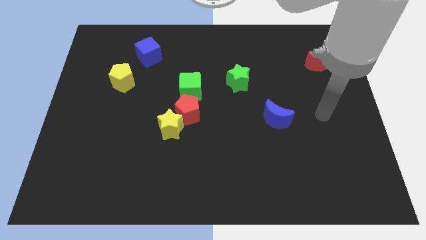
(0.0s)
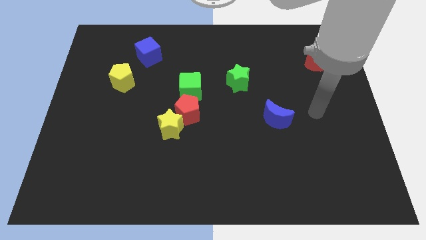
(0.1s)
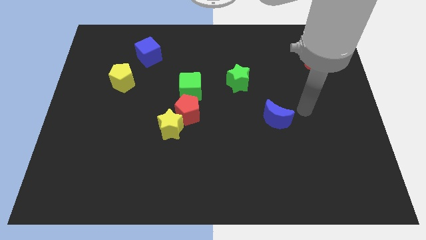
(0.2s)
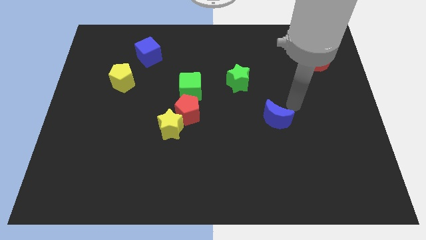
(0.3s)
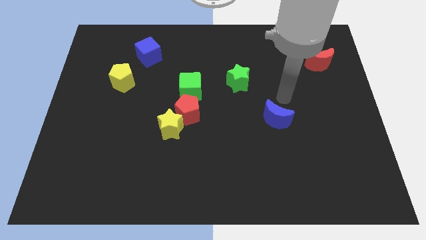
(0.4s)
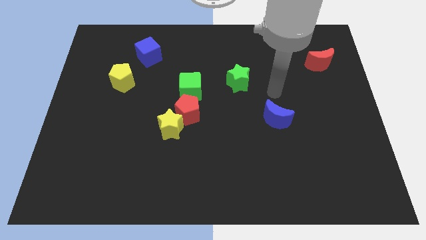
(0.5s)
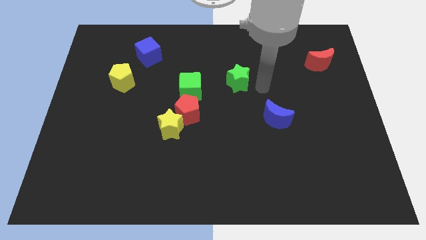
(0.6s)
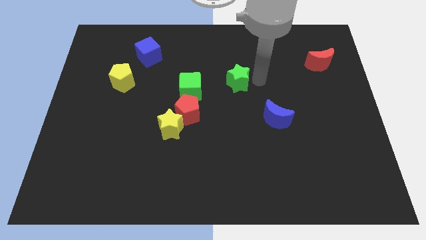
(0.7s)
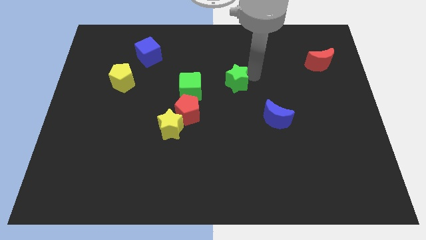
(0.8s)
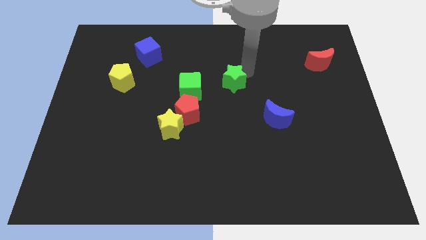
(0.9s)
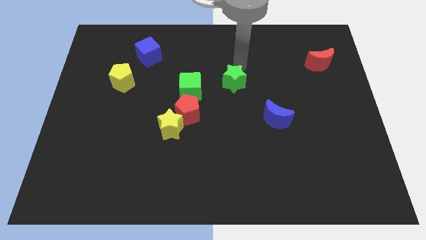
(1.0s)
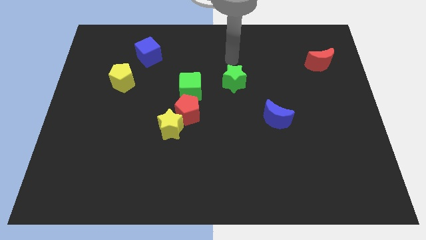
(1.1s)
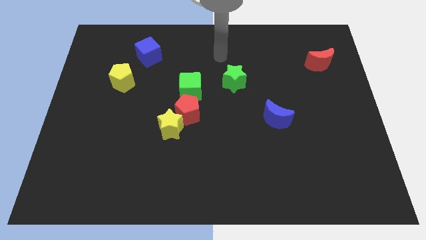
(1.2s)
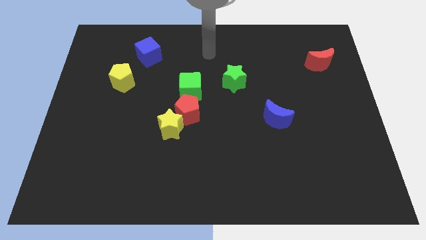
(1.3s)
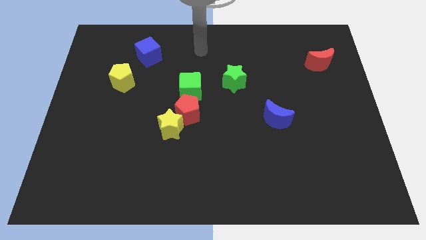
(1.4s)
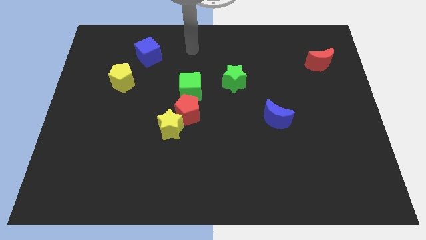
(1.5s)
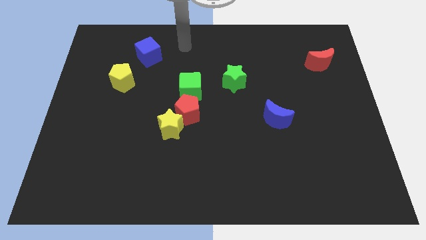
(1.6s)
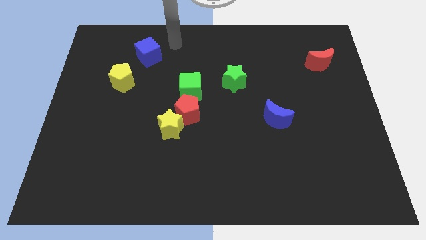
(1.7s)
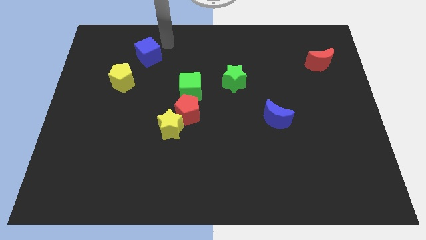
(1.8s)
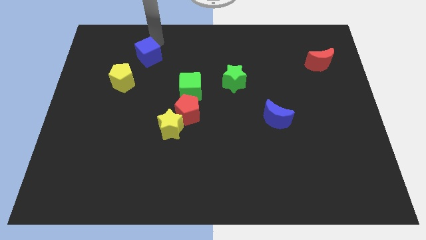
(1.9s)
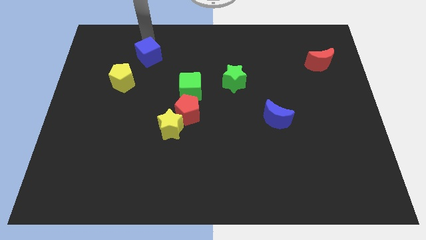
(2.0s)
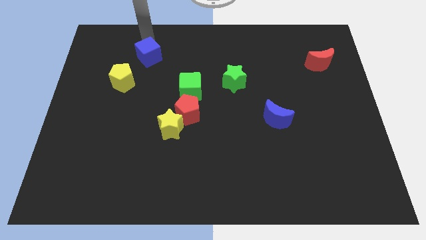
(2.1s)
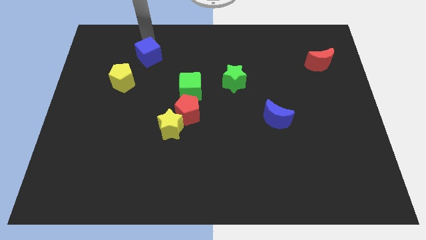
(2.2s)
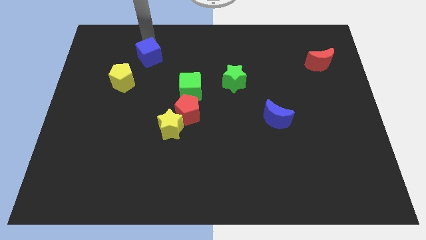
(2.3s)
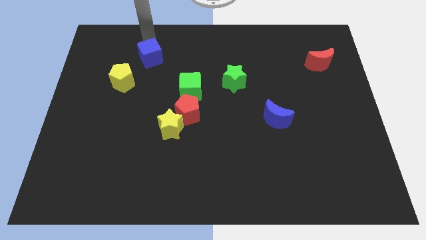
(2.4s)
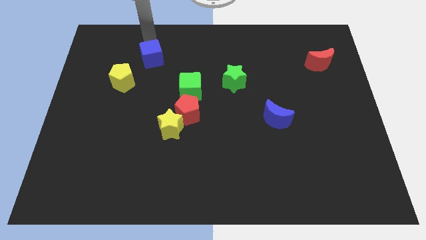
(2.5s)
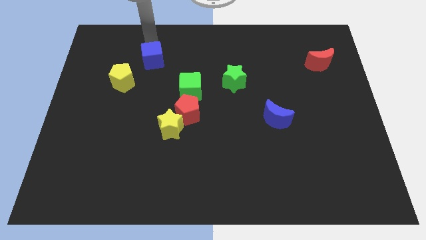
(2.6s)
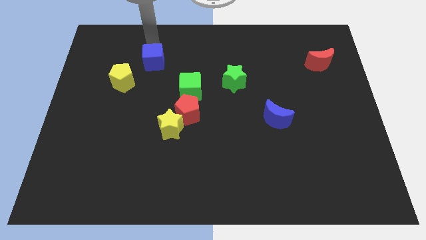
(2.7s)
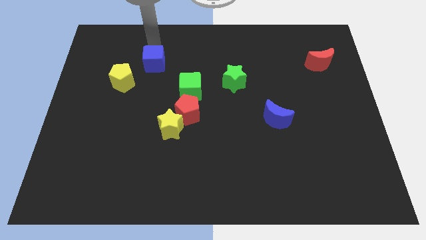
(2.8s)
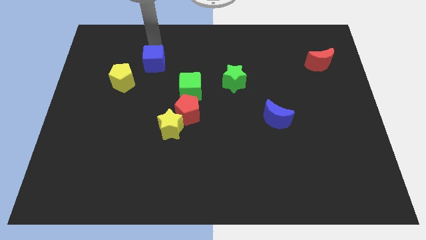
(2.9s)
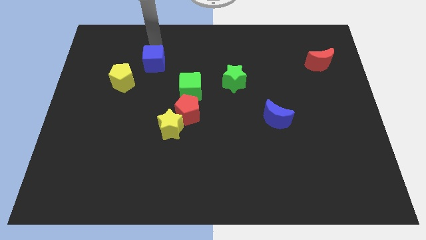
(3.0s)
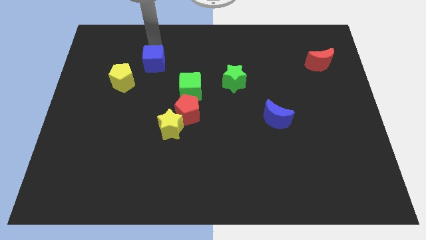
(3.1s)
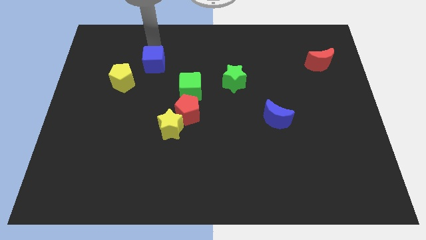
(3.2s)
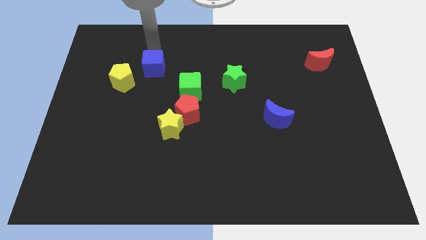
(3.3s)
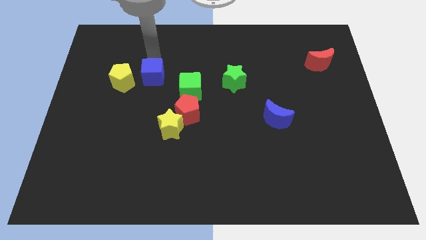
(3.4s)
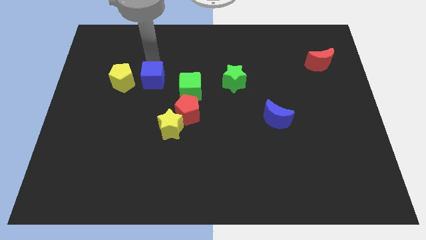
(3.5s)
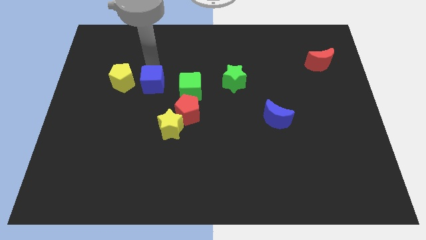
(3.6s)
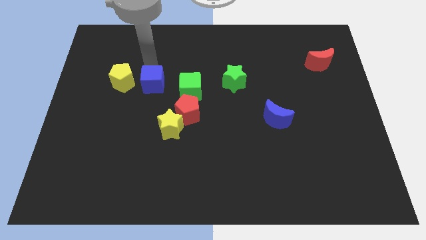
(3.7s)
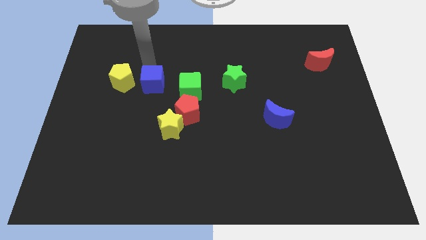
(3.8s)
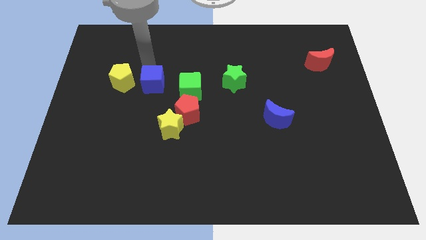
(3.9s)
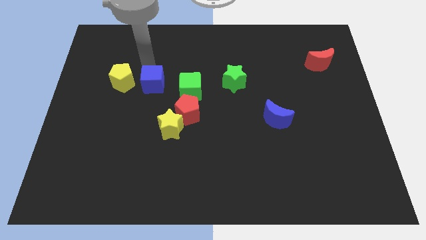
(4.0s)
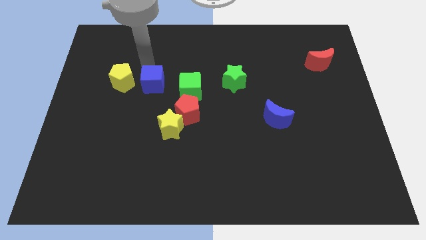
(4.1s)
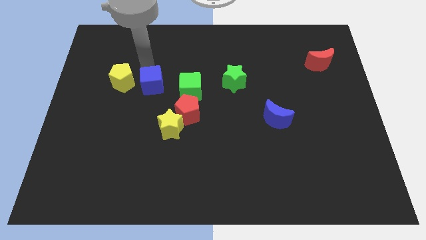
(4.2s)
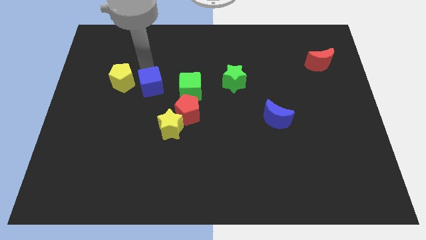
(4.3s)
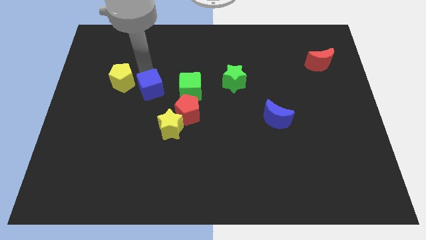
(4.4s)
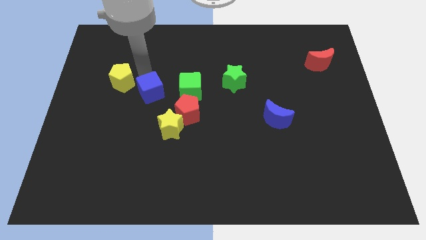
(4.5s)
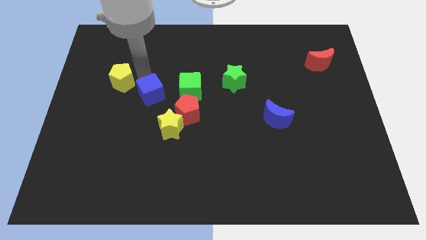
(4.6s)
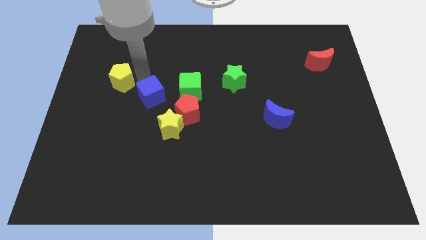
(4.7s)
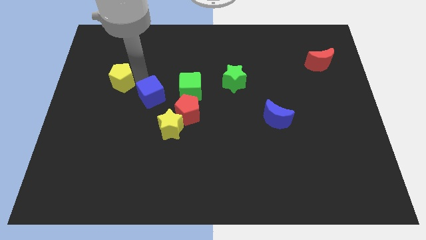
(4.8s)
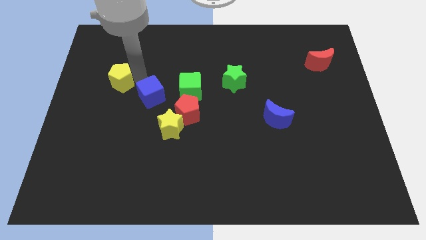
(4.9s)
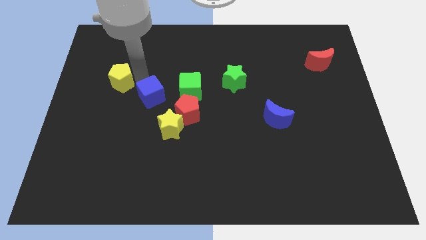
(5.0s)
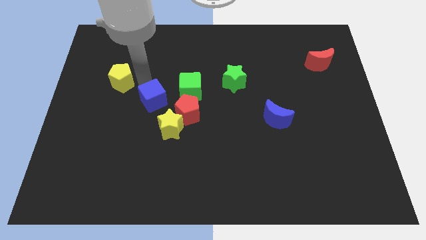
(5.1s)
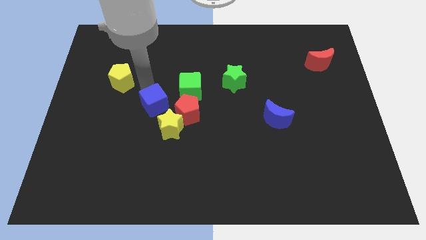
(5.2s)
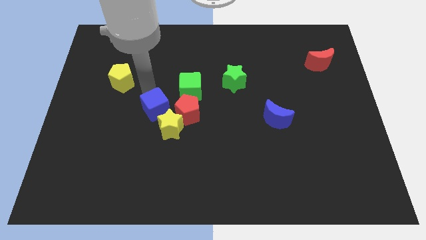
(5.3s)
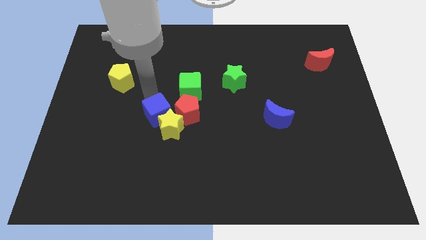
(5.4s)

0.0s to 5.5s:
push the blue cube close to the yellow star

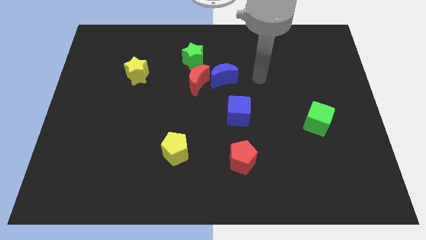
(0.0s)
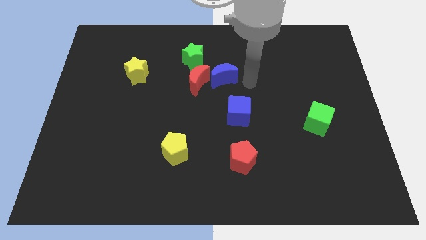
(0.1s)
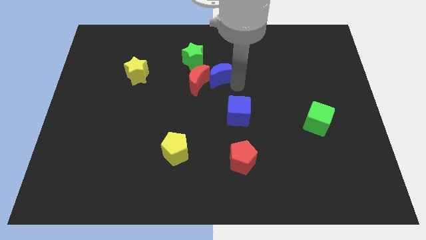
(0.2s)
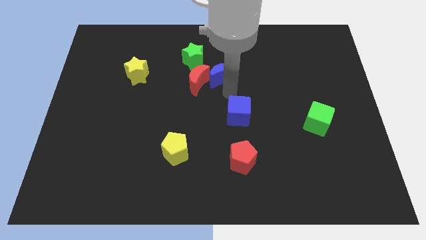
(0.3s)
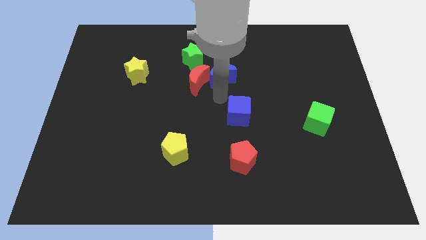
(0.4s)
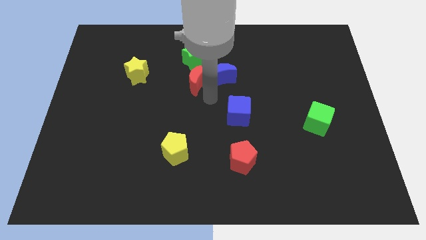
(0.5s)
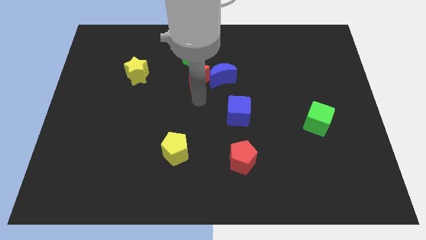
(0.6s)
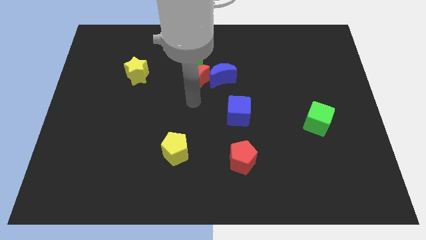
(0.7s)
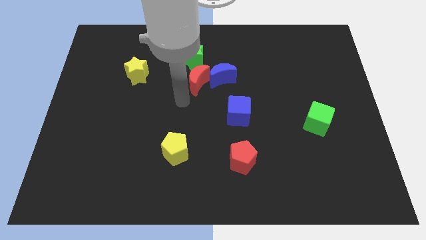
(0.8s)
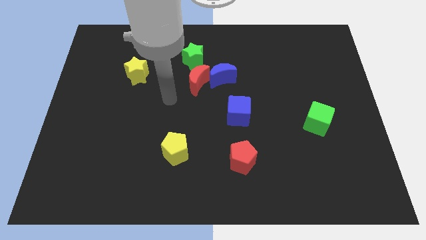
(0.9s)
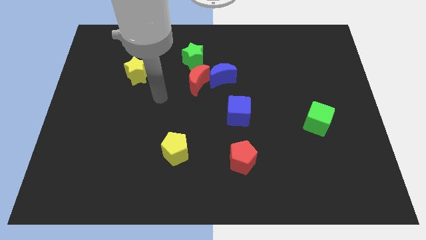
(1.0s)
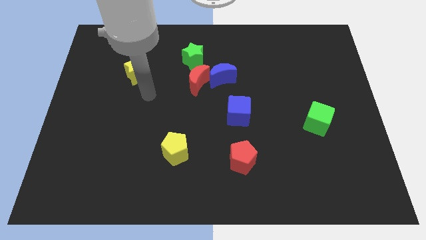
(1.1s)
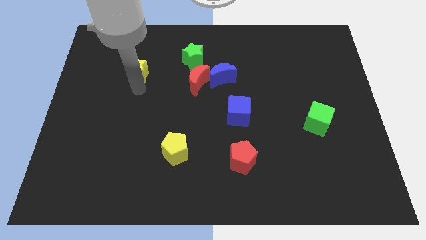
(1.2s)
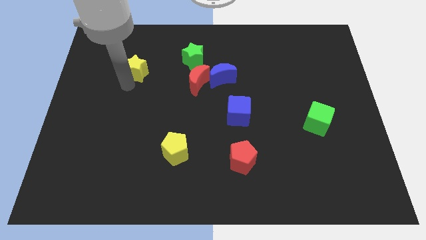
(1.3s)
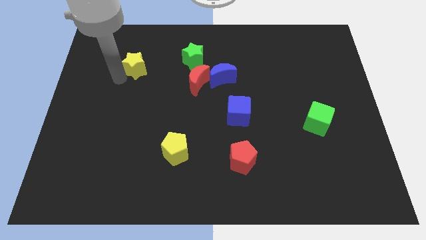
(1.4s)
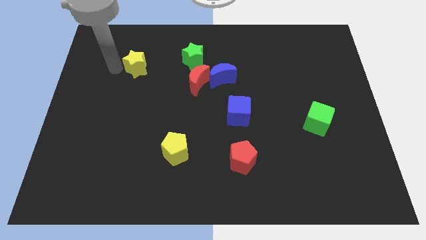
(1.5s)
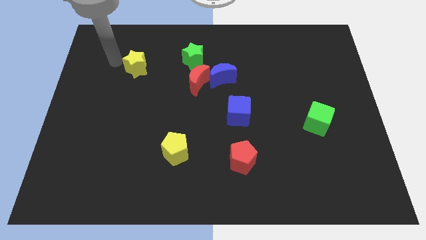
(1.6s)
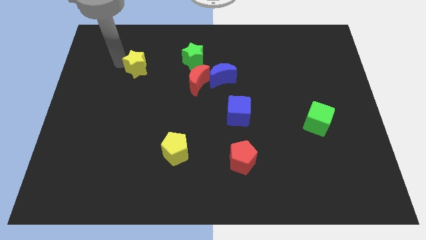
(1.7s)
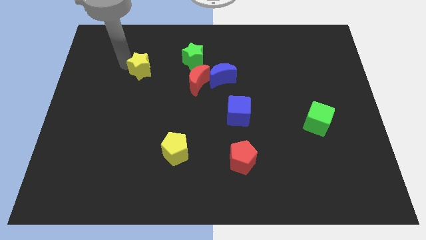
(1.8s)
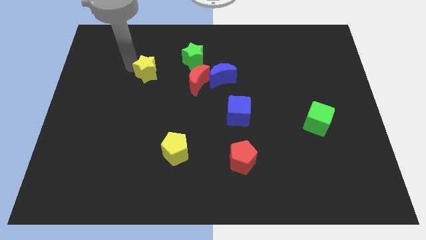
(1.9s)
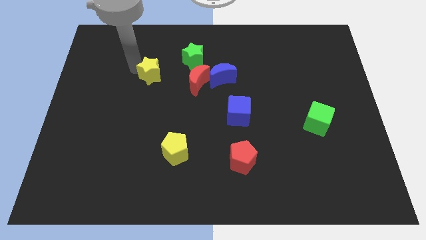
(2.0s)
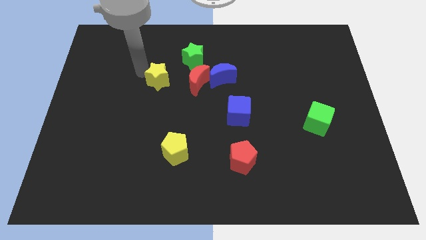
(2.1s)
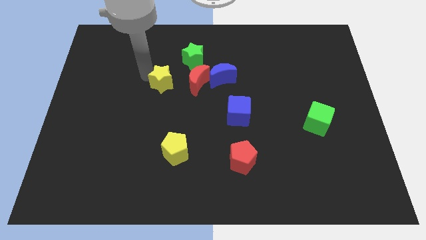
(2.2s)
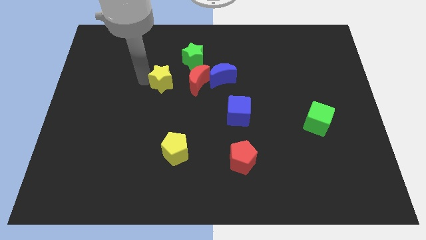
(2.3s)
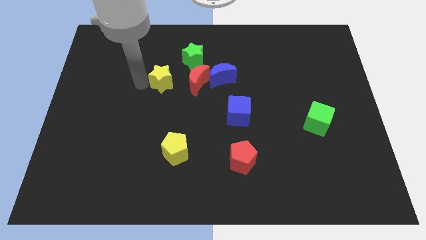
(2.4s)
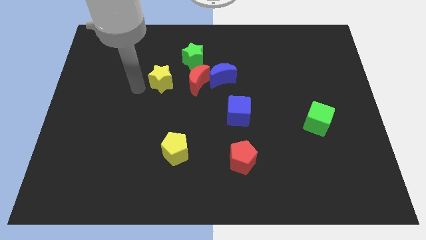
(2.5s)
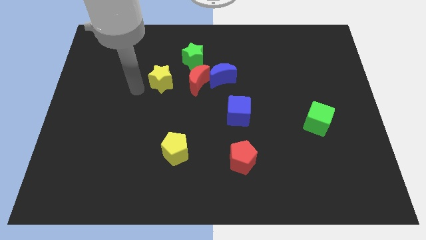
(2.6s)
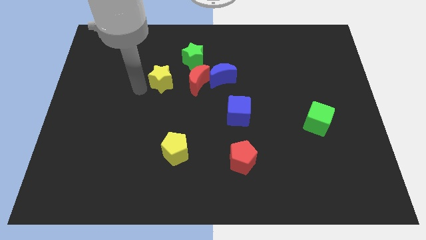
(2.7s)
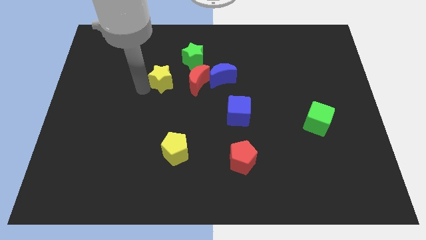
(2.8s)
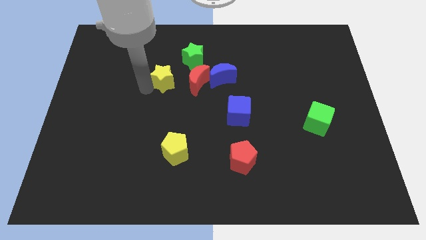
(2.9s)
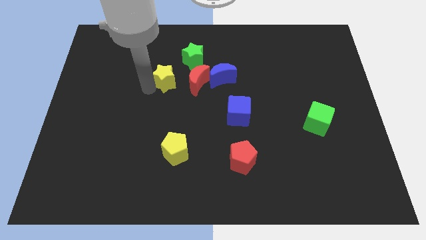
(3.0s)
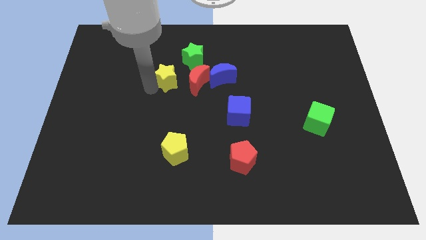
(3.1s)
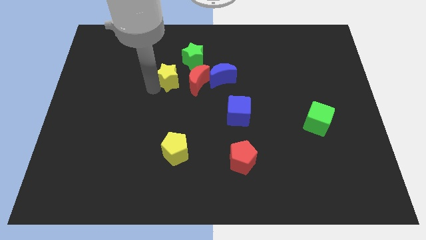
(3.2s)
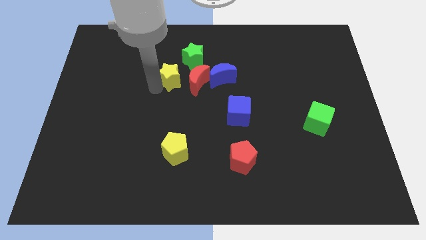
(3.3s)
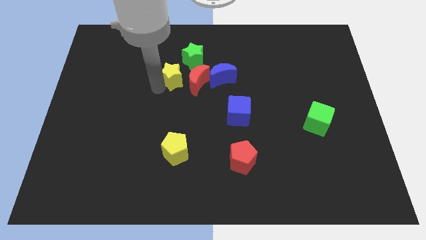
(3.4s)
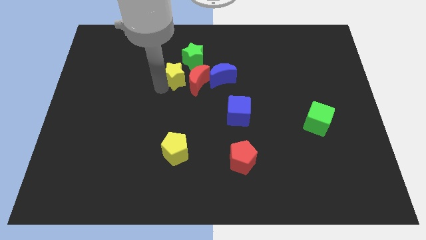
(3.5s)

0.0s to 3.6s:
slide the yellow star close to the red moon
